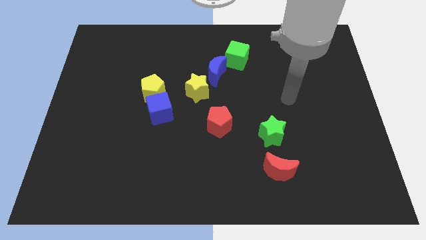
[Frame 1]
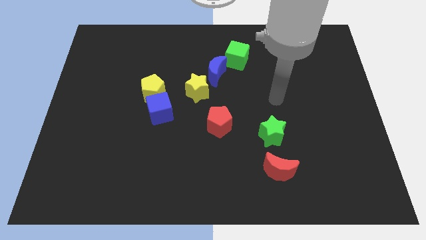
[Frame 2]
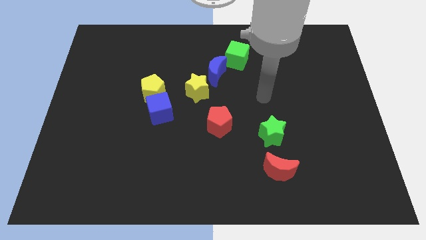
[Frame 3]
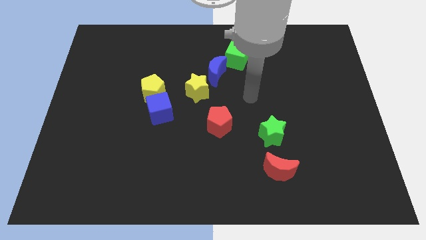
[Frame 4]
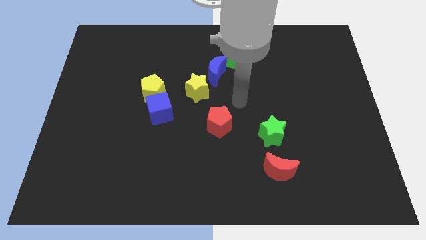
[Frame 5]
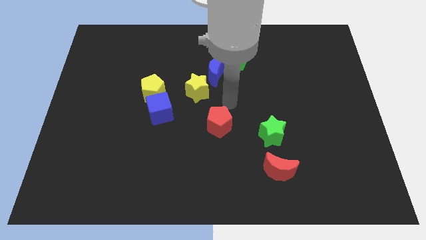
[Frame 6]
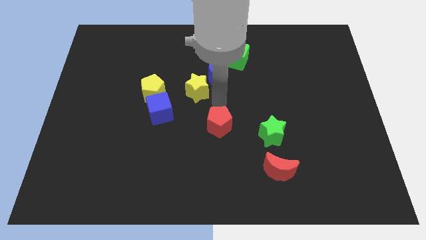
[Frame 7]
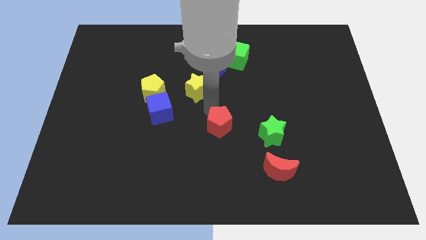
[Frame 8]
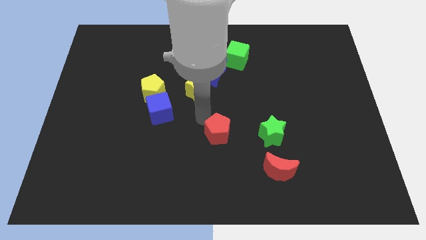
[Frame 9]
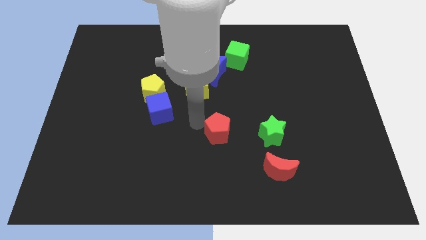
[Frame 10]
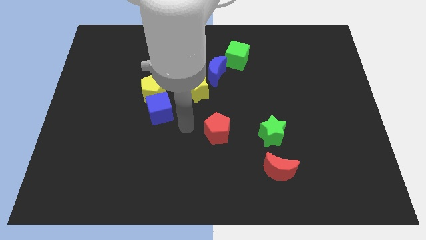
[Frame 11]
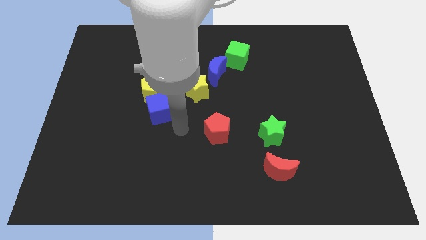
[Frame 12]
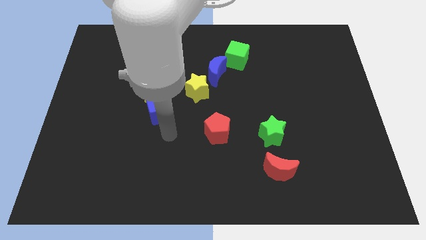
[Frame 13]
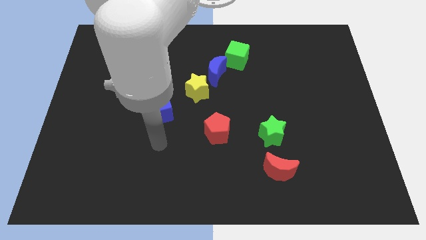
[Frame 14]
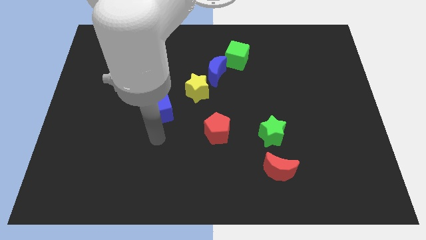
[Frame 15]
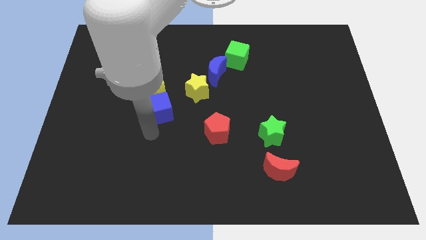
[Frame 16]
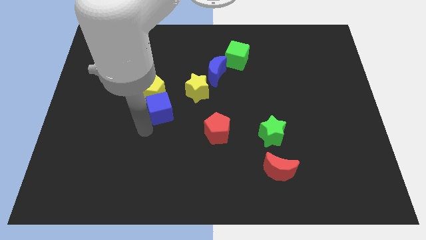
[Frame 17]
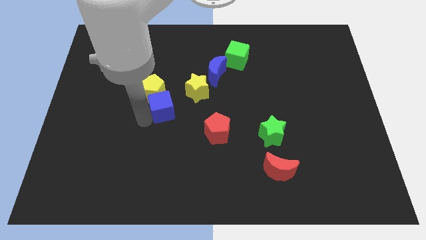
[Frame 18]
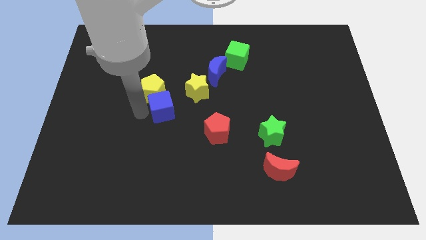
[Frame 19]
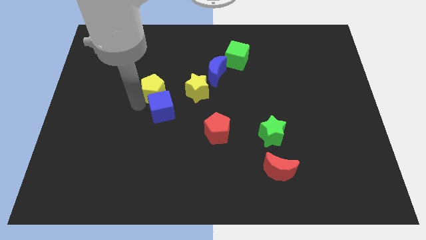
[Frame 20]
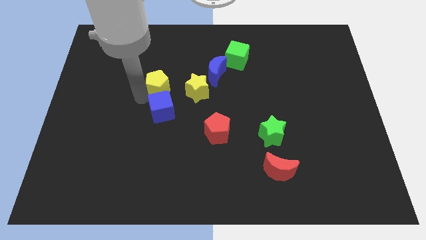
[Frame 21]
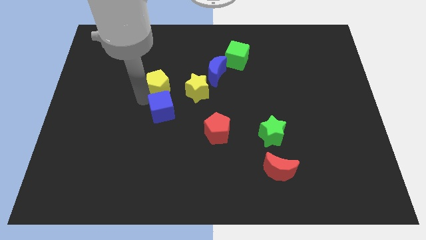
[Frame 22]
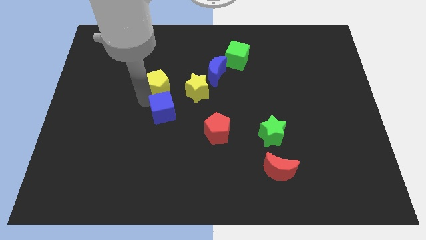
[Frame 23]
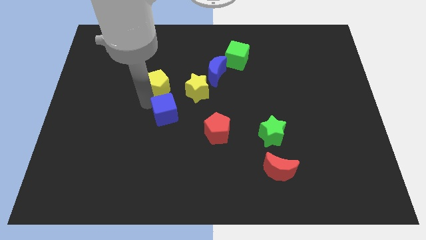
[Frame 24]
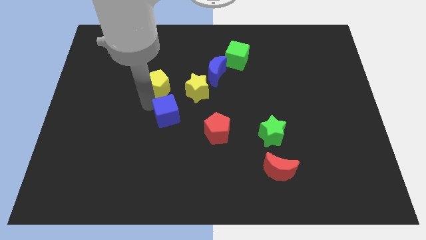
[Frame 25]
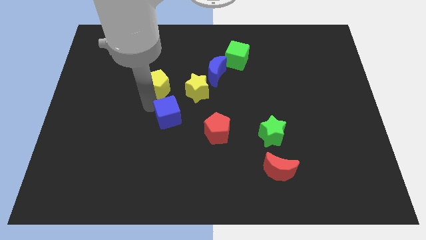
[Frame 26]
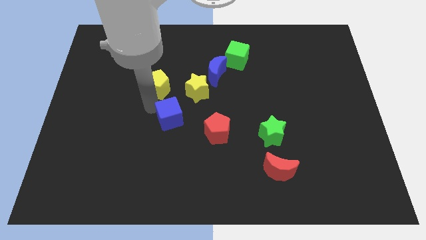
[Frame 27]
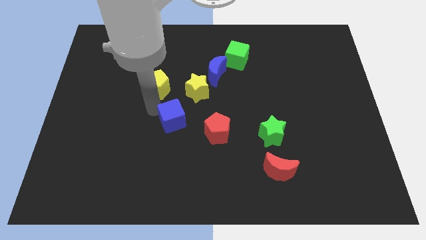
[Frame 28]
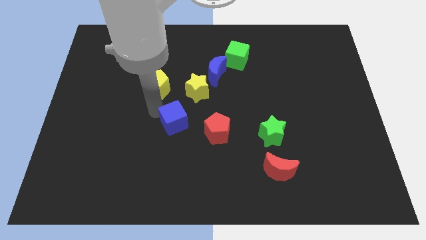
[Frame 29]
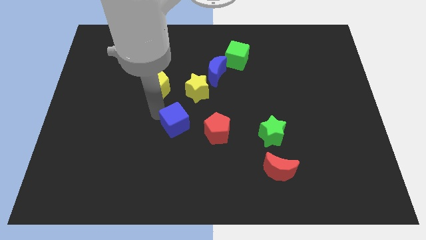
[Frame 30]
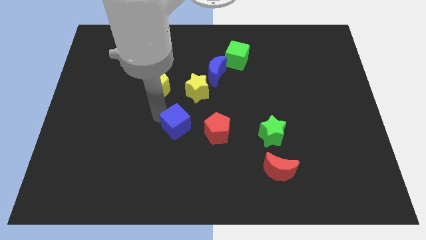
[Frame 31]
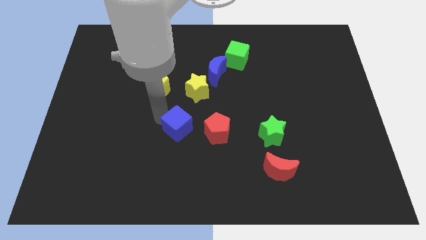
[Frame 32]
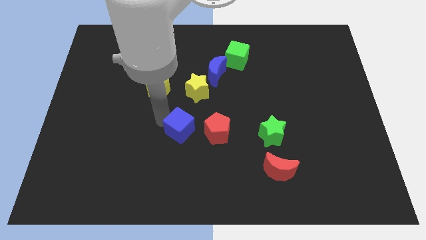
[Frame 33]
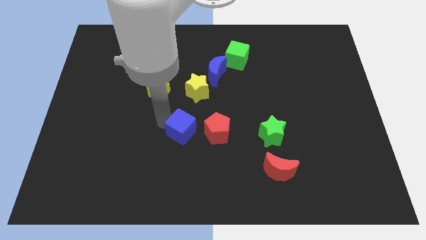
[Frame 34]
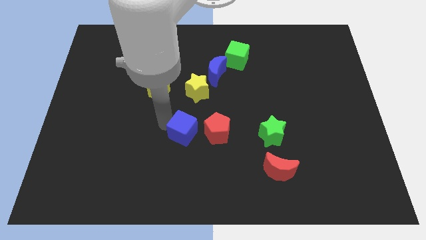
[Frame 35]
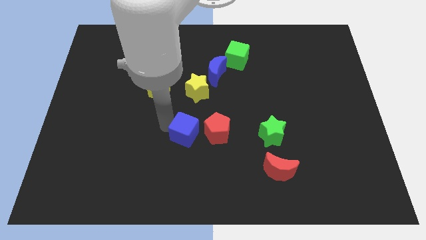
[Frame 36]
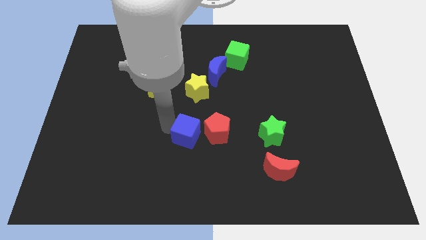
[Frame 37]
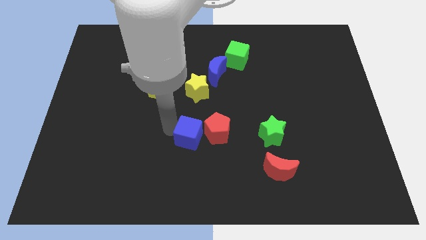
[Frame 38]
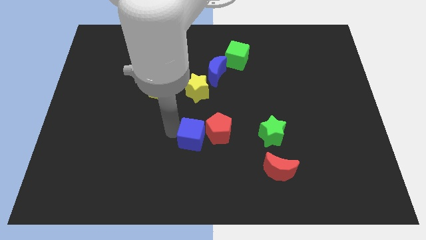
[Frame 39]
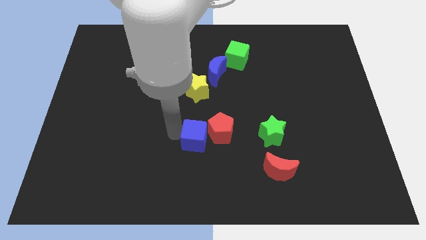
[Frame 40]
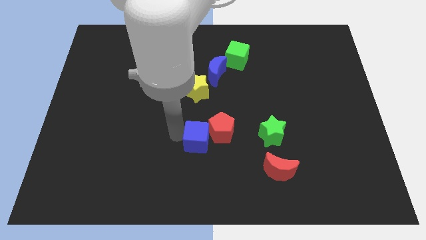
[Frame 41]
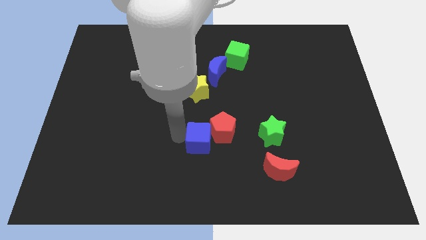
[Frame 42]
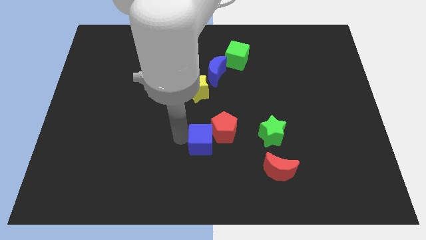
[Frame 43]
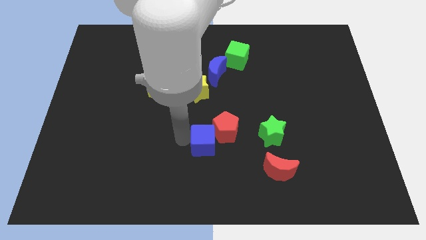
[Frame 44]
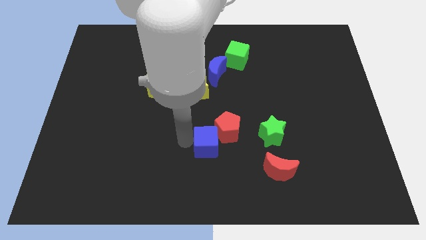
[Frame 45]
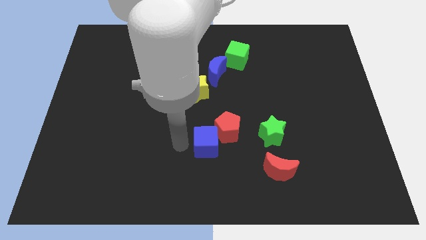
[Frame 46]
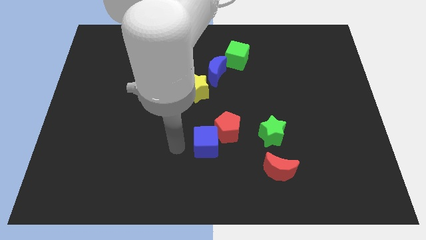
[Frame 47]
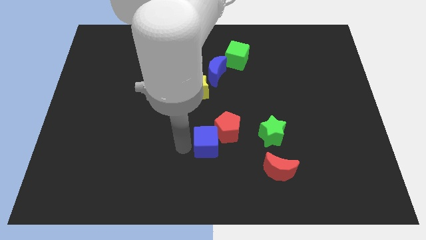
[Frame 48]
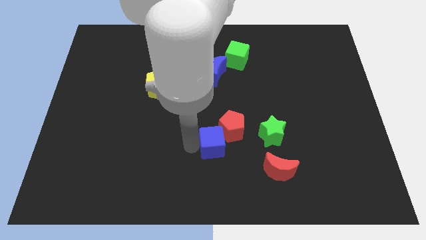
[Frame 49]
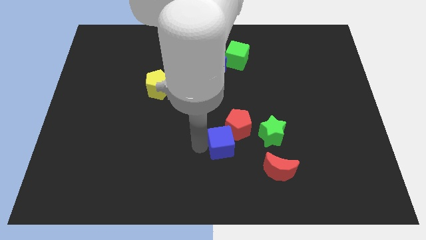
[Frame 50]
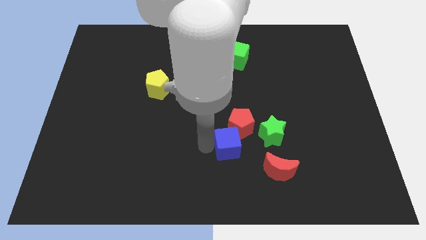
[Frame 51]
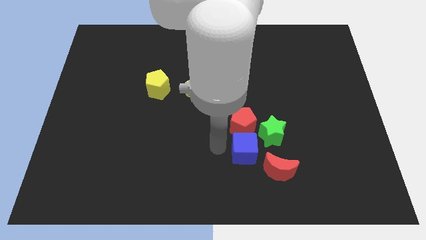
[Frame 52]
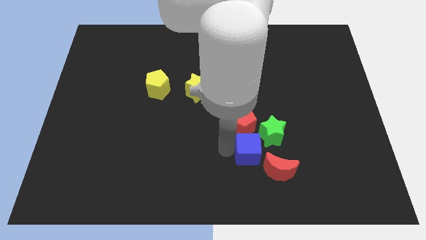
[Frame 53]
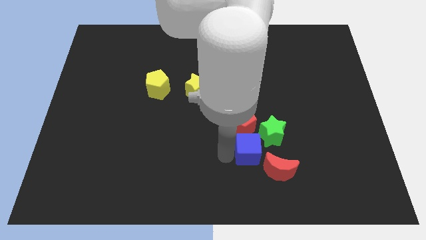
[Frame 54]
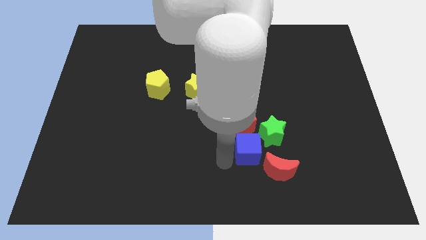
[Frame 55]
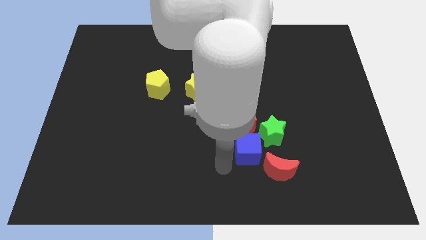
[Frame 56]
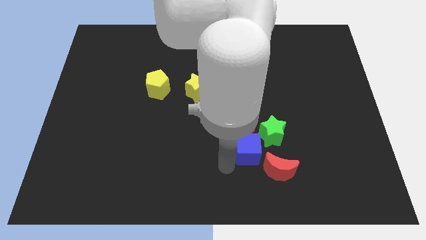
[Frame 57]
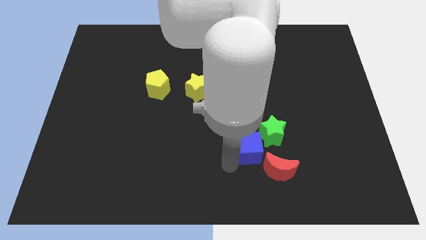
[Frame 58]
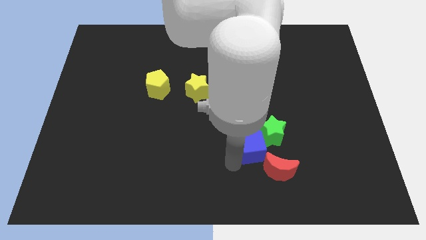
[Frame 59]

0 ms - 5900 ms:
move the blue cube next to the green star

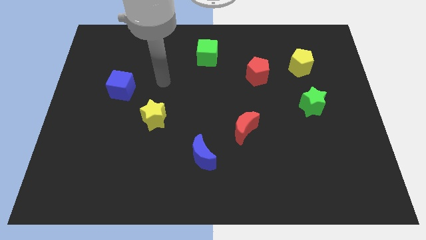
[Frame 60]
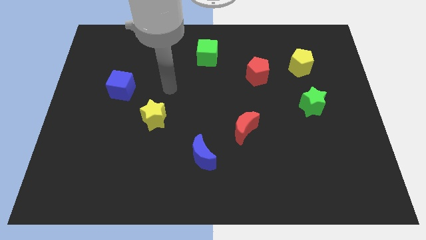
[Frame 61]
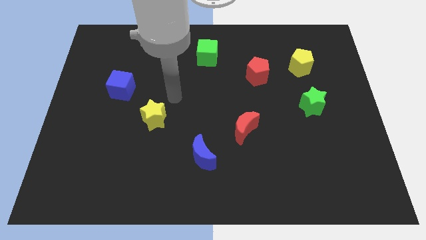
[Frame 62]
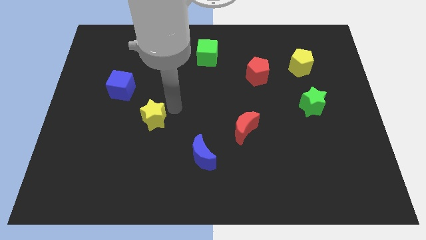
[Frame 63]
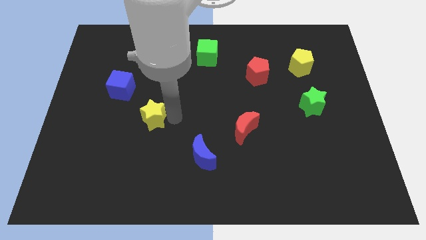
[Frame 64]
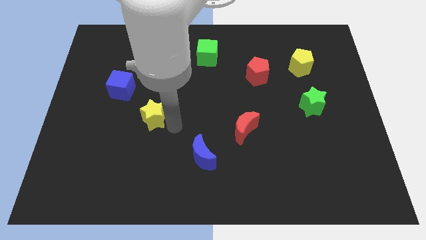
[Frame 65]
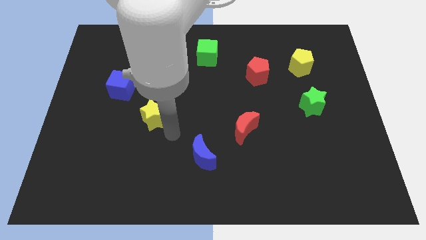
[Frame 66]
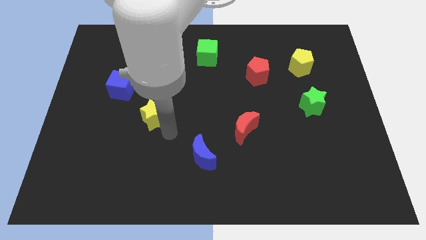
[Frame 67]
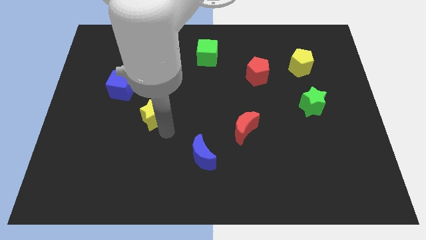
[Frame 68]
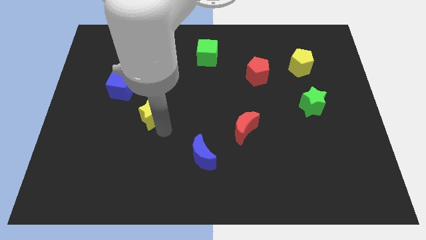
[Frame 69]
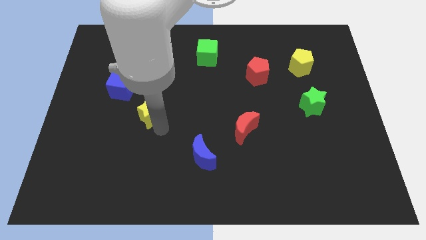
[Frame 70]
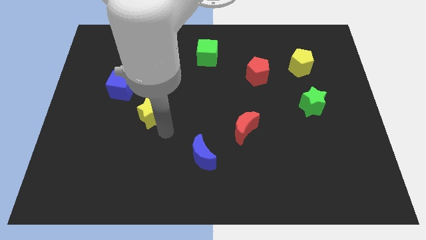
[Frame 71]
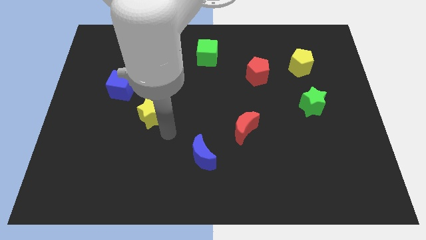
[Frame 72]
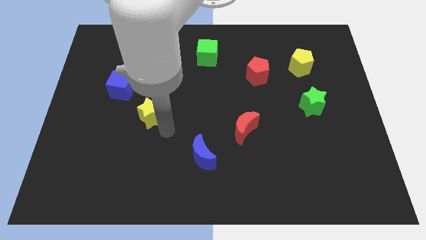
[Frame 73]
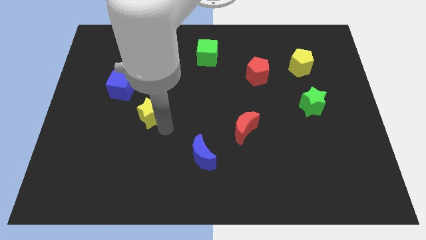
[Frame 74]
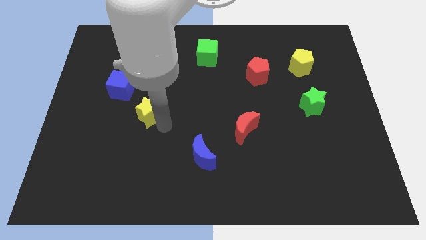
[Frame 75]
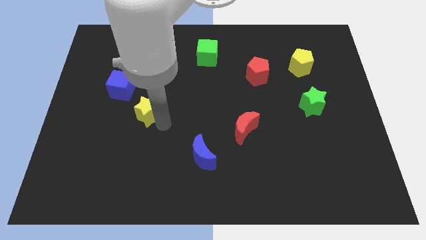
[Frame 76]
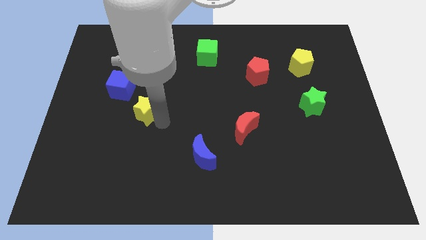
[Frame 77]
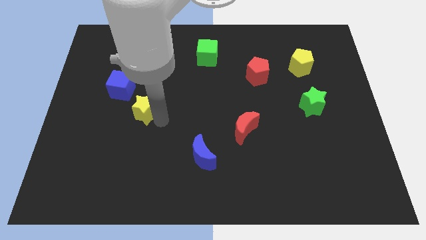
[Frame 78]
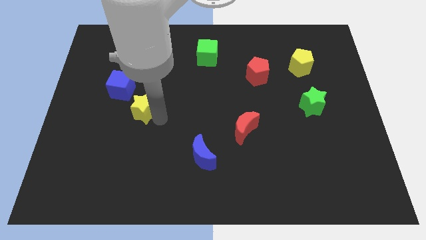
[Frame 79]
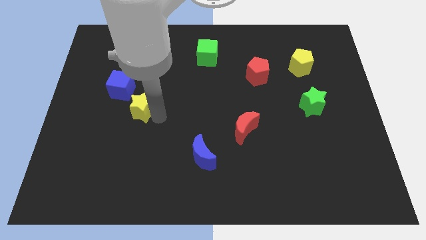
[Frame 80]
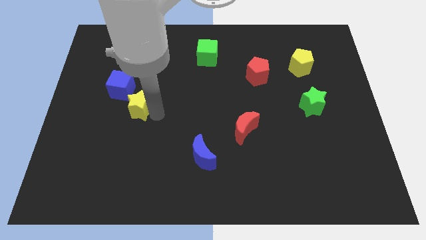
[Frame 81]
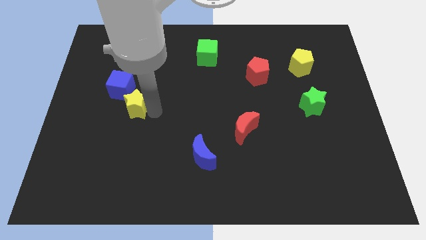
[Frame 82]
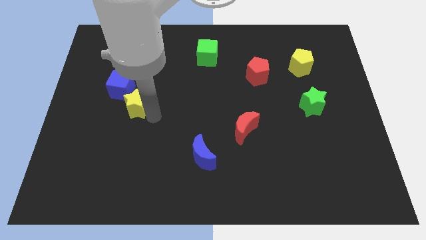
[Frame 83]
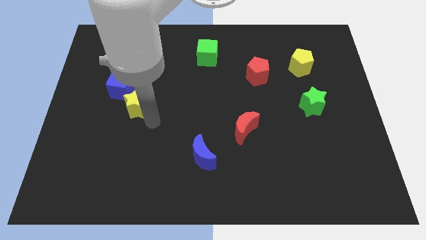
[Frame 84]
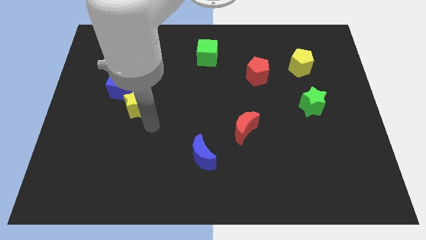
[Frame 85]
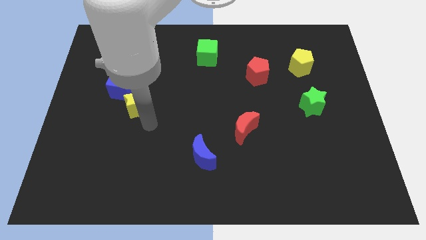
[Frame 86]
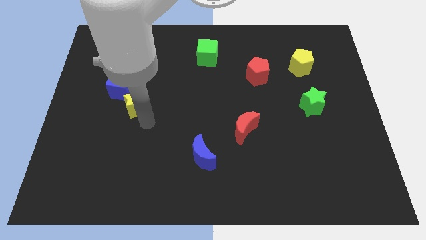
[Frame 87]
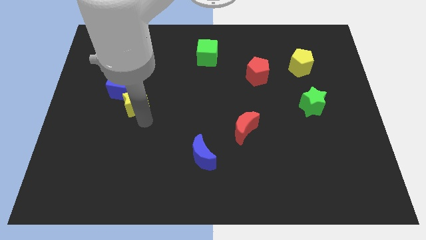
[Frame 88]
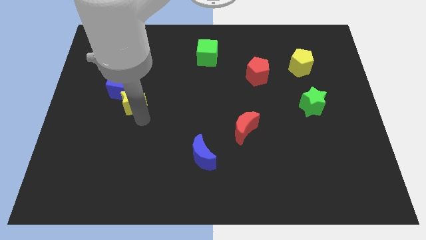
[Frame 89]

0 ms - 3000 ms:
push the yellow star close to the blue cube
